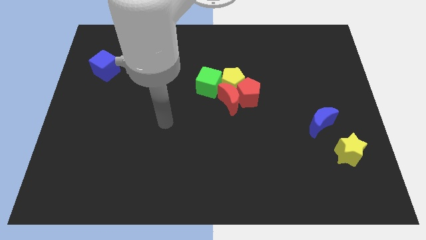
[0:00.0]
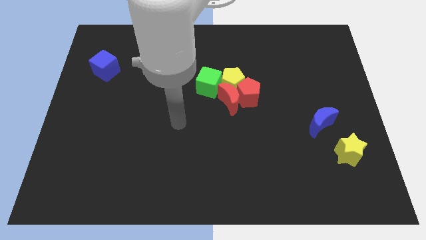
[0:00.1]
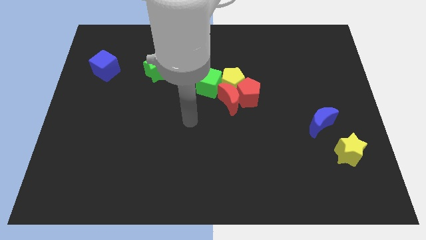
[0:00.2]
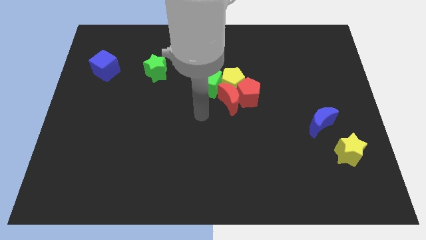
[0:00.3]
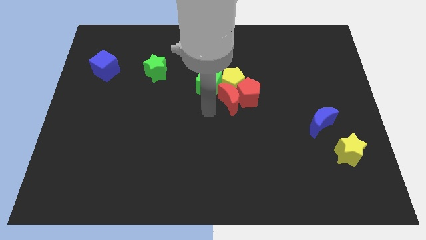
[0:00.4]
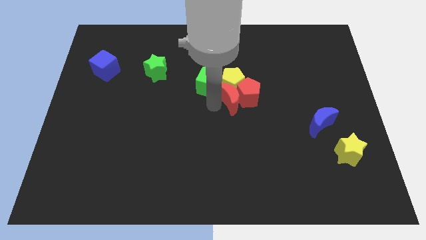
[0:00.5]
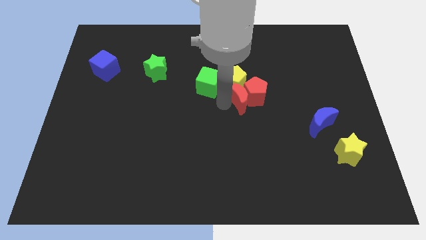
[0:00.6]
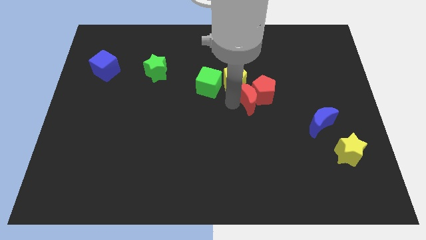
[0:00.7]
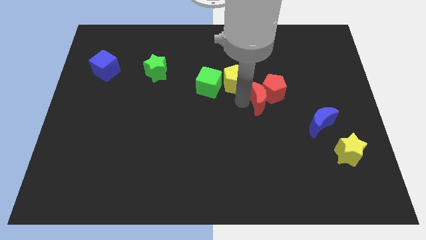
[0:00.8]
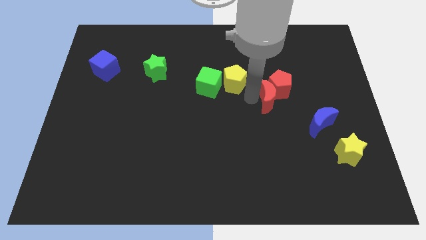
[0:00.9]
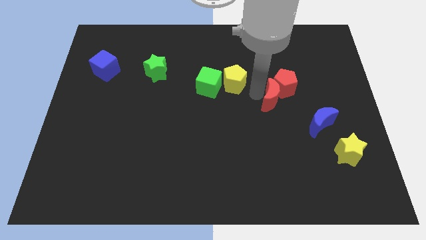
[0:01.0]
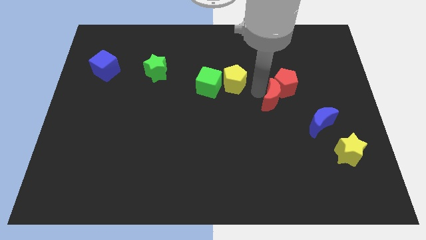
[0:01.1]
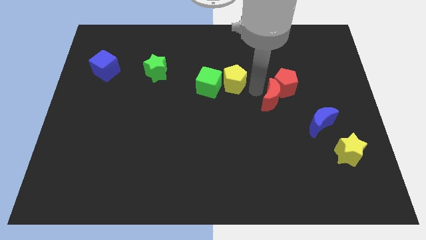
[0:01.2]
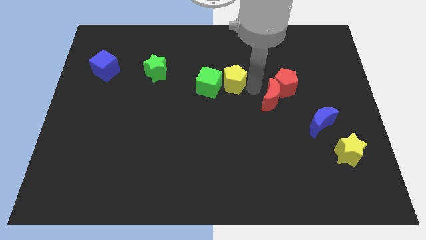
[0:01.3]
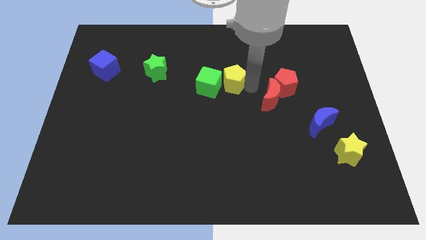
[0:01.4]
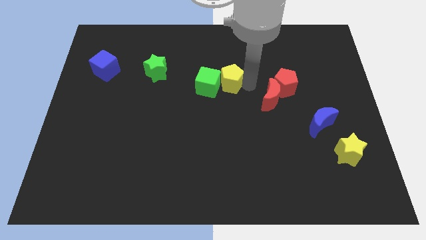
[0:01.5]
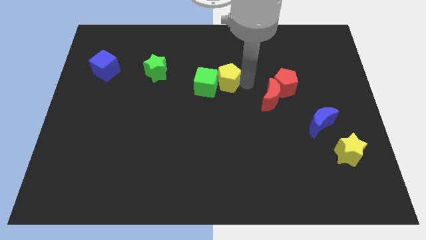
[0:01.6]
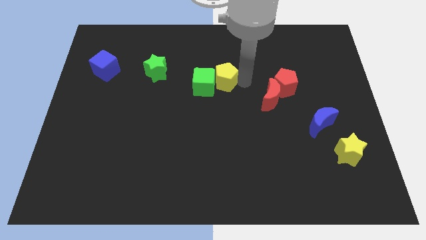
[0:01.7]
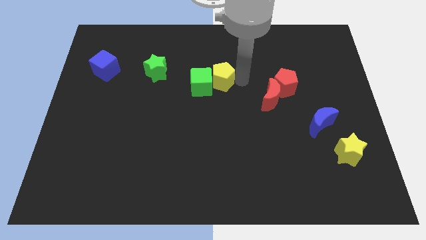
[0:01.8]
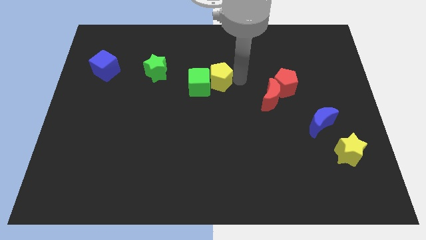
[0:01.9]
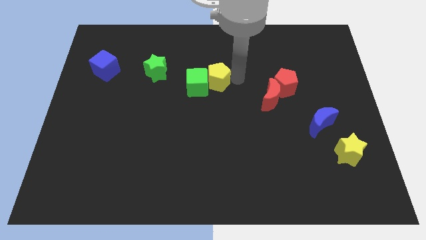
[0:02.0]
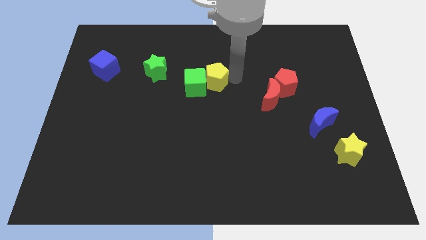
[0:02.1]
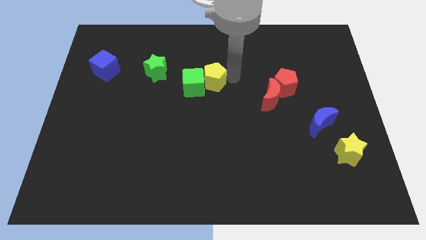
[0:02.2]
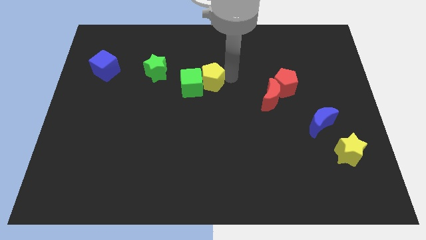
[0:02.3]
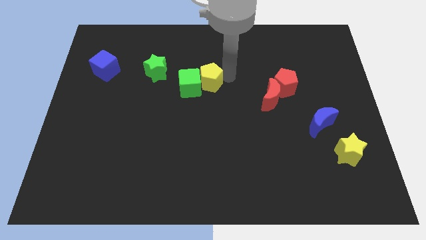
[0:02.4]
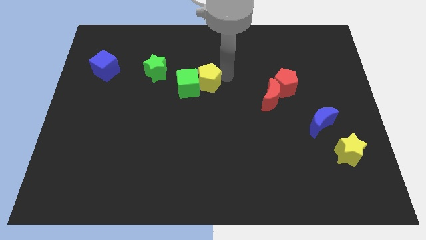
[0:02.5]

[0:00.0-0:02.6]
separate the yellow pentagon from the clump

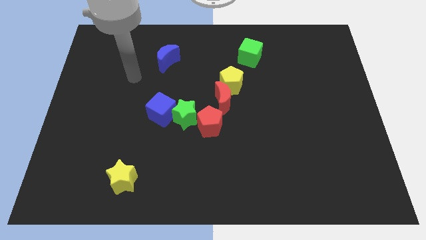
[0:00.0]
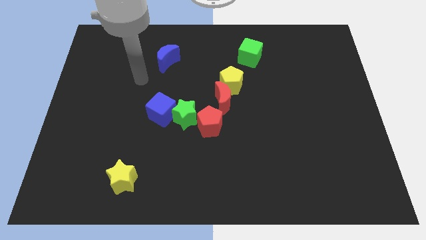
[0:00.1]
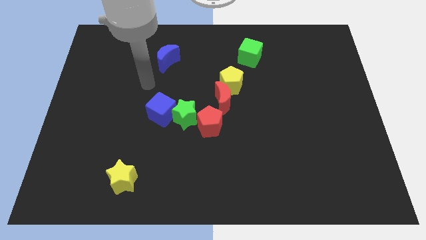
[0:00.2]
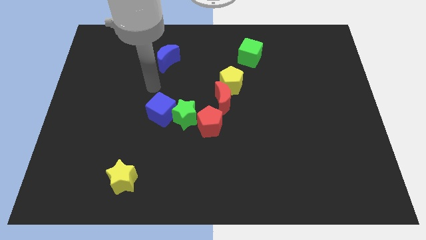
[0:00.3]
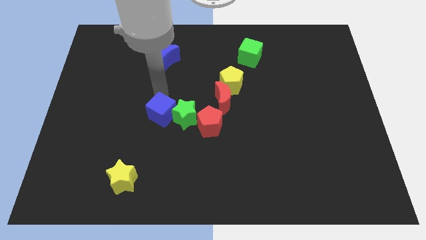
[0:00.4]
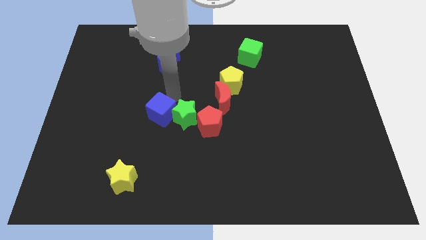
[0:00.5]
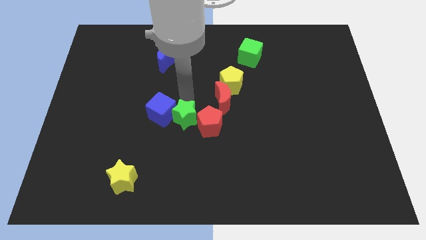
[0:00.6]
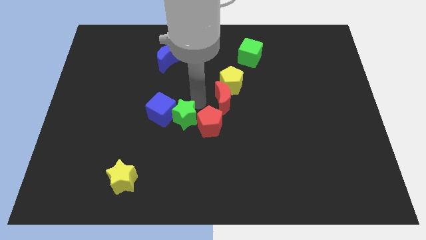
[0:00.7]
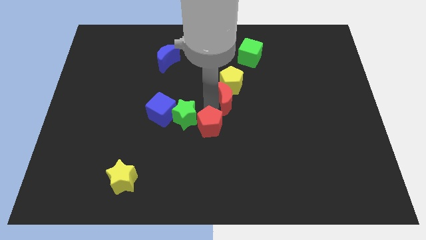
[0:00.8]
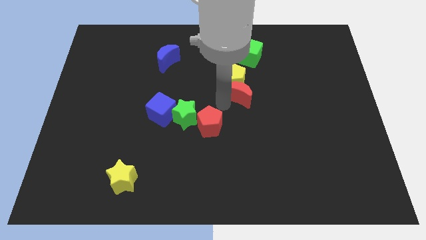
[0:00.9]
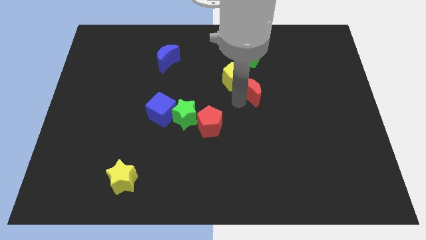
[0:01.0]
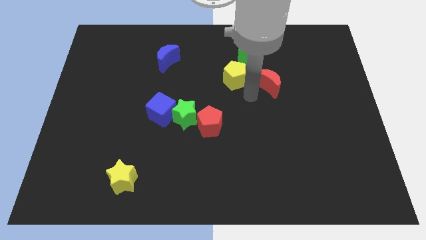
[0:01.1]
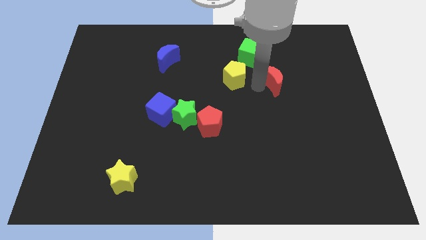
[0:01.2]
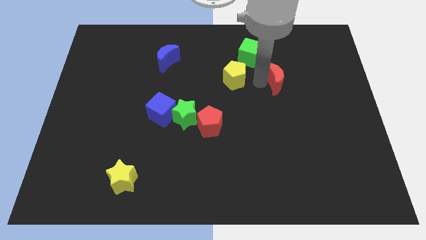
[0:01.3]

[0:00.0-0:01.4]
separate the yellow pentagon from the red moon

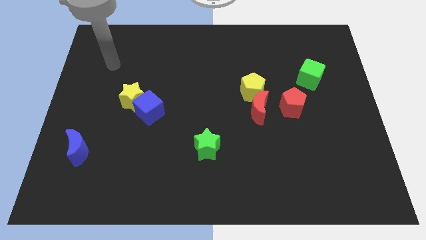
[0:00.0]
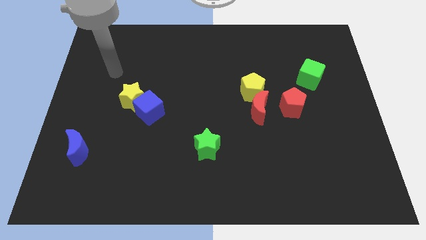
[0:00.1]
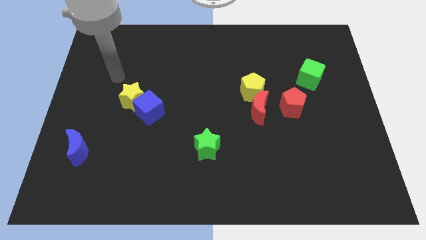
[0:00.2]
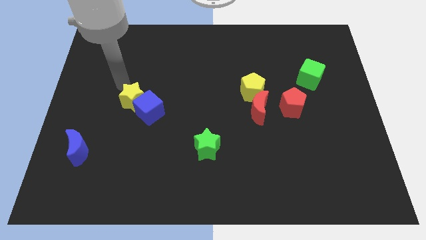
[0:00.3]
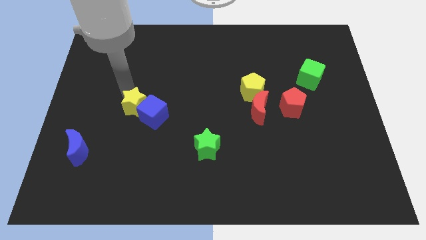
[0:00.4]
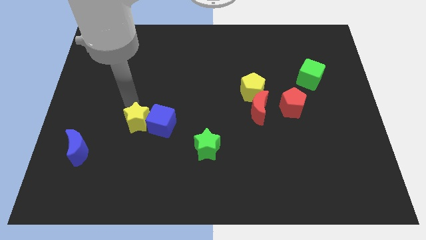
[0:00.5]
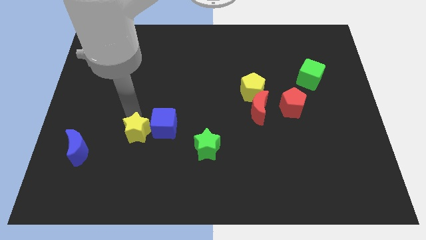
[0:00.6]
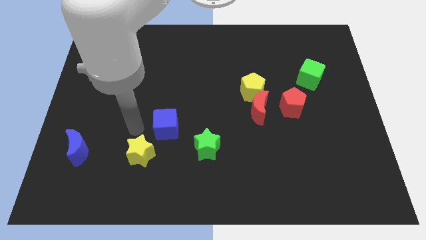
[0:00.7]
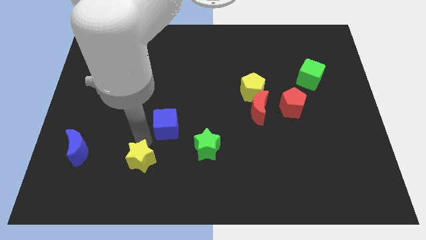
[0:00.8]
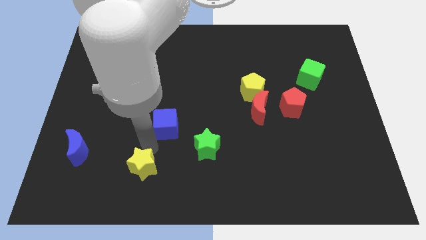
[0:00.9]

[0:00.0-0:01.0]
move the blue cube away from the yellow star

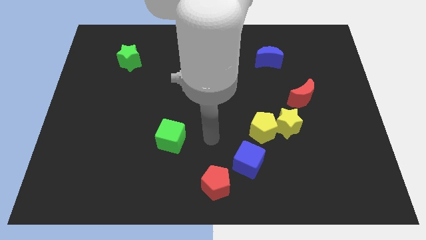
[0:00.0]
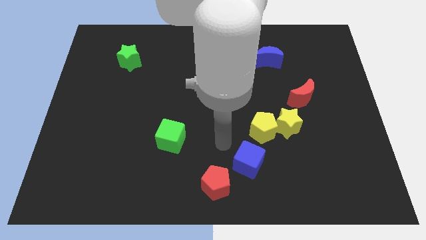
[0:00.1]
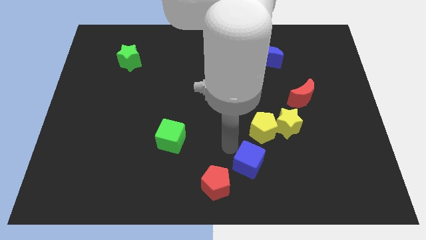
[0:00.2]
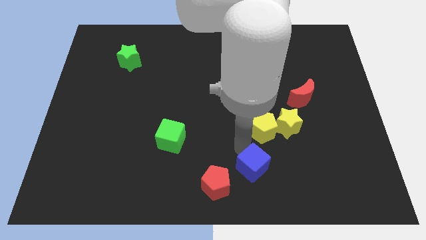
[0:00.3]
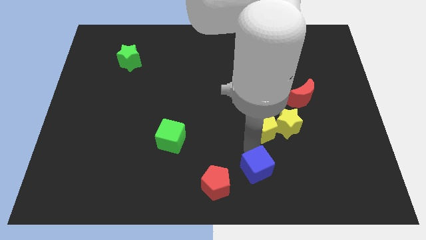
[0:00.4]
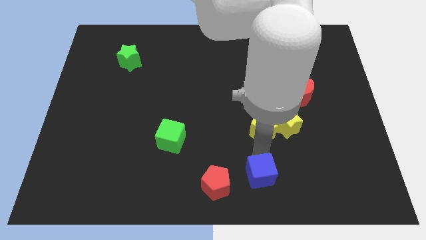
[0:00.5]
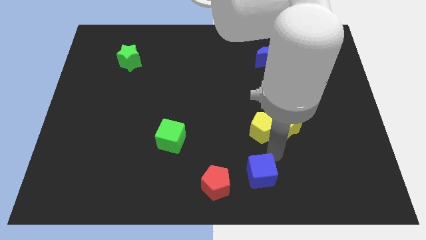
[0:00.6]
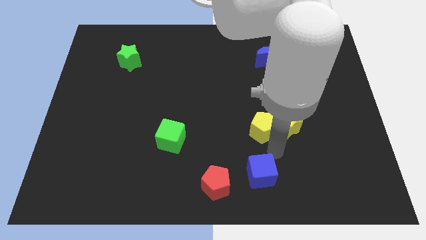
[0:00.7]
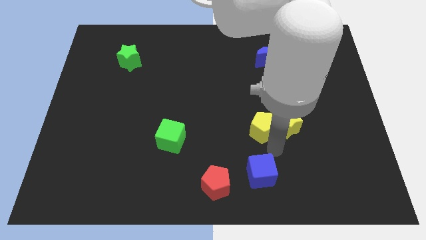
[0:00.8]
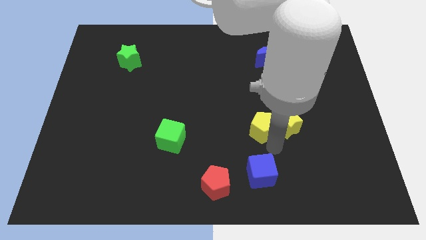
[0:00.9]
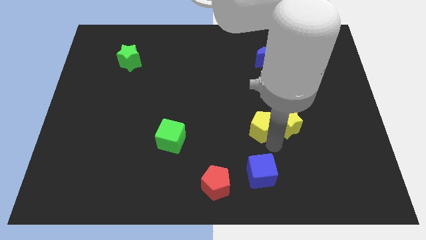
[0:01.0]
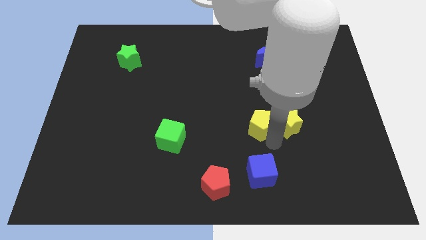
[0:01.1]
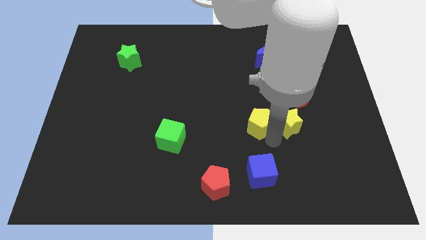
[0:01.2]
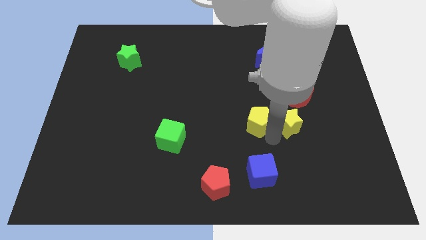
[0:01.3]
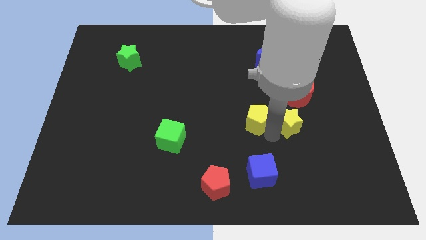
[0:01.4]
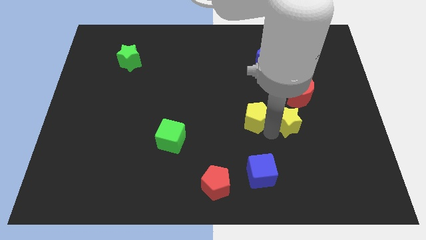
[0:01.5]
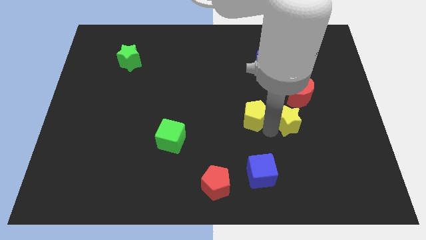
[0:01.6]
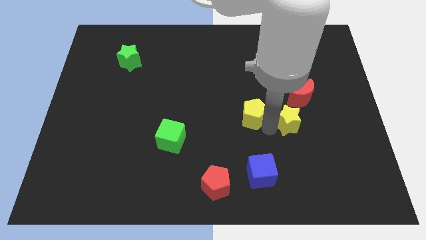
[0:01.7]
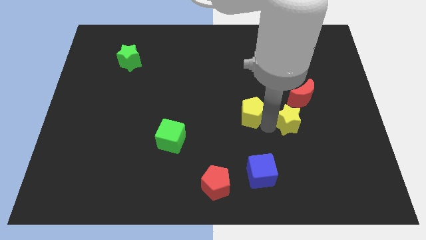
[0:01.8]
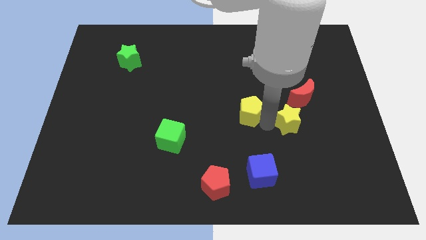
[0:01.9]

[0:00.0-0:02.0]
move the yellow pentagon away from the yellow star and blue cube

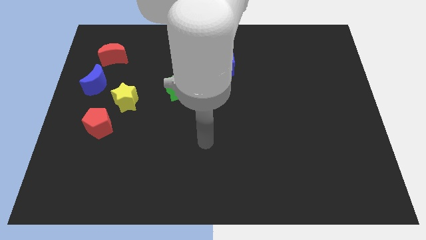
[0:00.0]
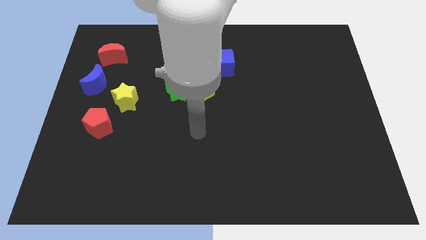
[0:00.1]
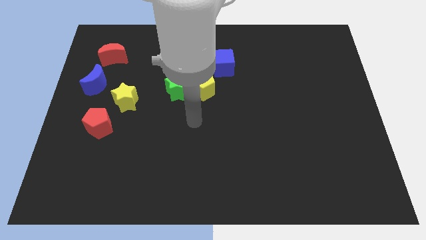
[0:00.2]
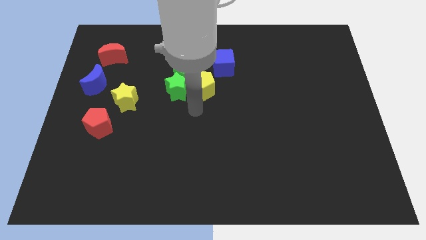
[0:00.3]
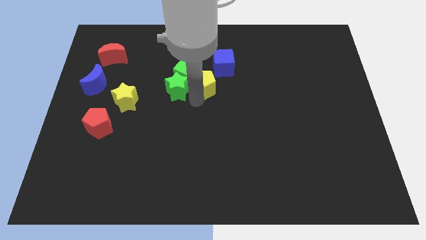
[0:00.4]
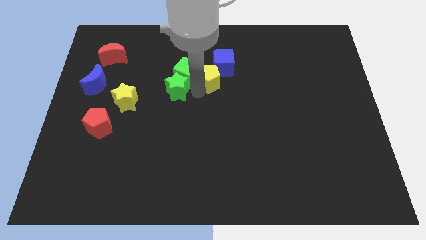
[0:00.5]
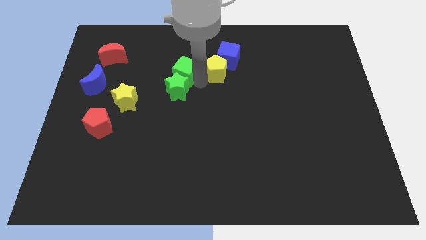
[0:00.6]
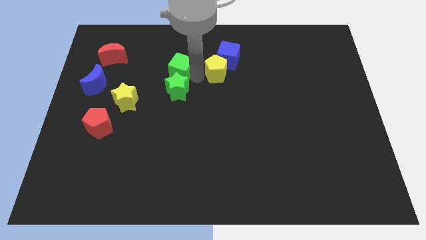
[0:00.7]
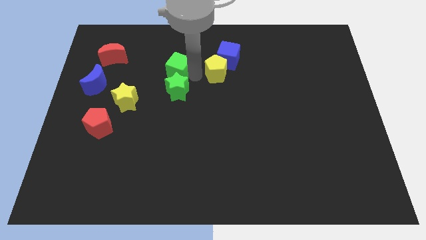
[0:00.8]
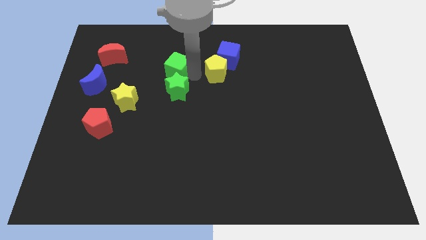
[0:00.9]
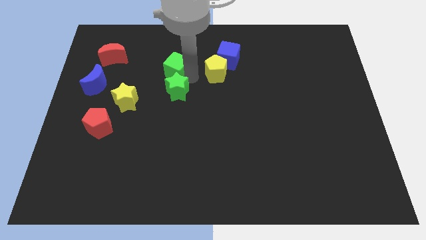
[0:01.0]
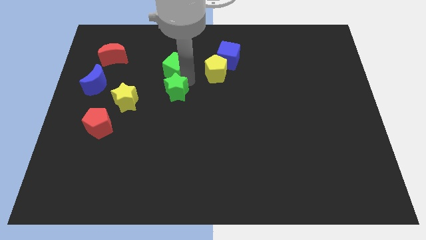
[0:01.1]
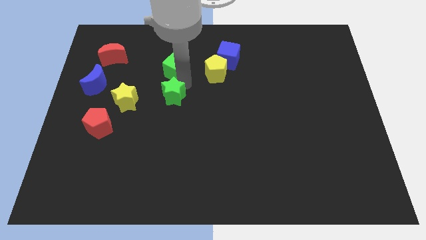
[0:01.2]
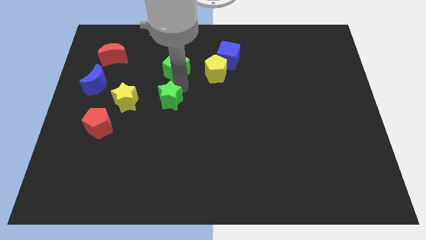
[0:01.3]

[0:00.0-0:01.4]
pull the green star apart from the green cube and yellow pentagon

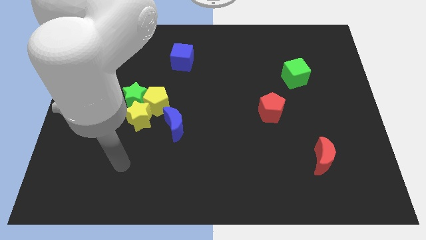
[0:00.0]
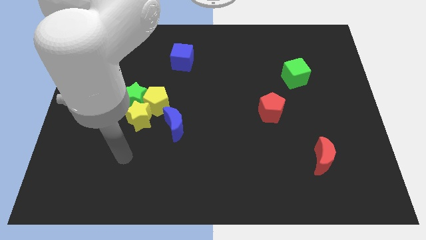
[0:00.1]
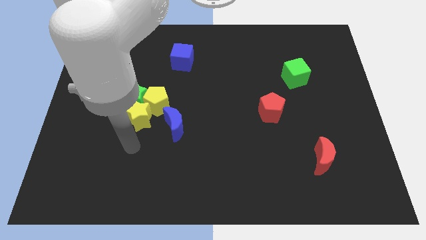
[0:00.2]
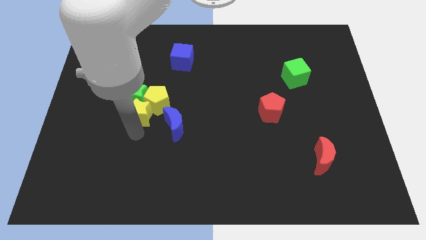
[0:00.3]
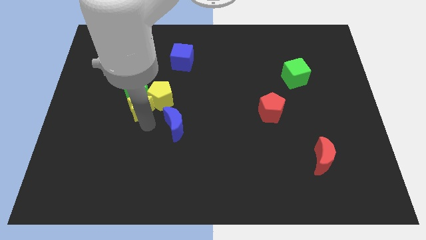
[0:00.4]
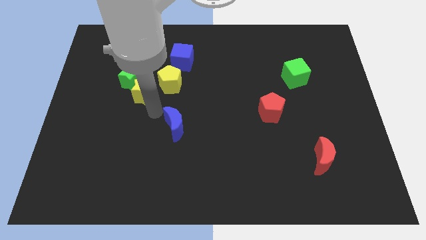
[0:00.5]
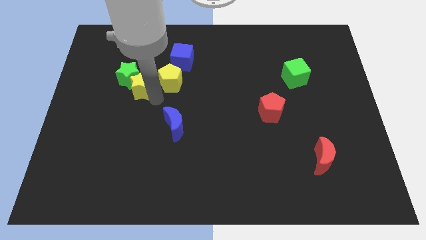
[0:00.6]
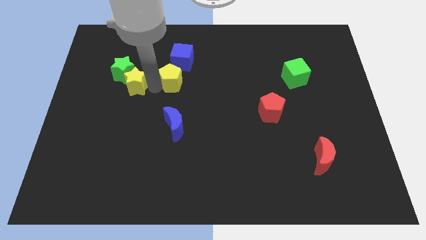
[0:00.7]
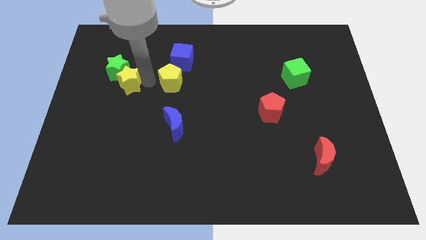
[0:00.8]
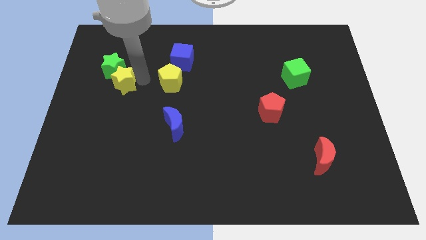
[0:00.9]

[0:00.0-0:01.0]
pull the green star apart from the yellow star and yellow pentagon
